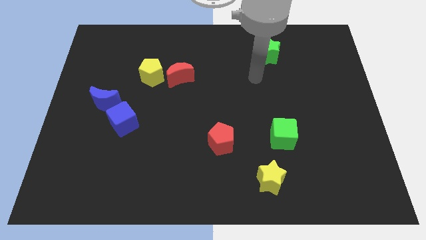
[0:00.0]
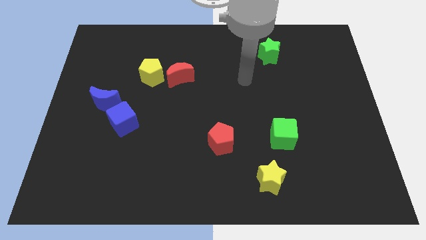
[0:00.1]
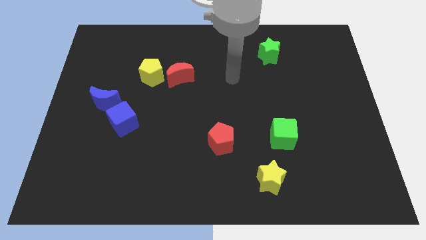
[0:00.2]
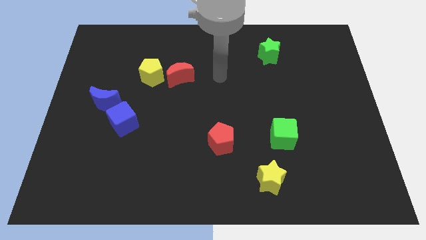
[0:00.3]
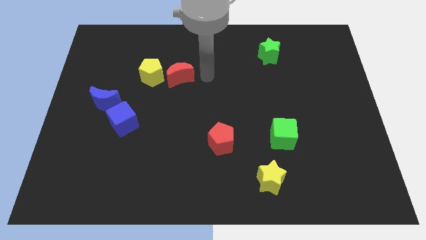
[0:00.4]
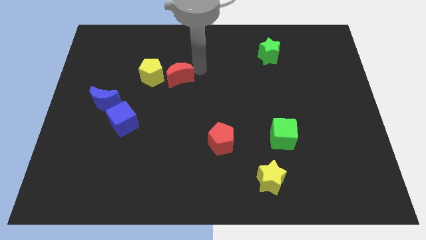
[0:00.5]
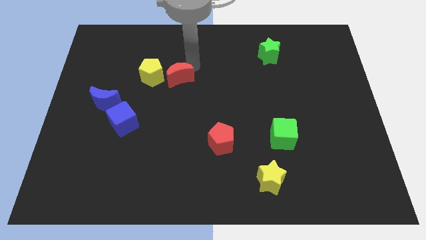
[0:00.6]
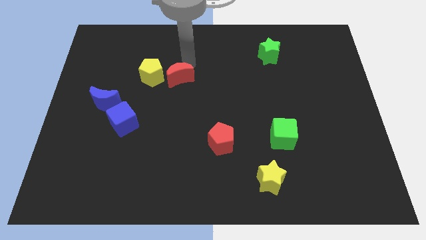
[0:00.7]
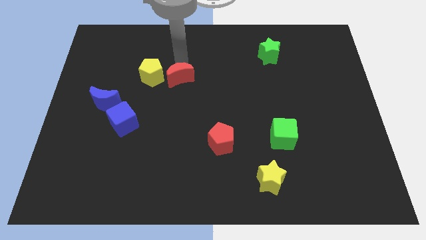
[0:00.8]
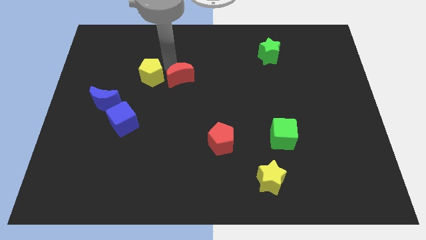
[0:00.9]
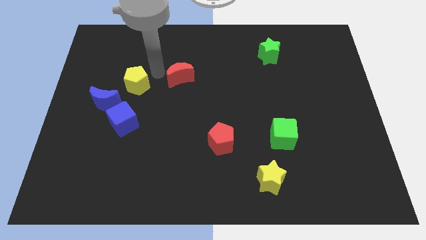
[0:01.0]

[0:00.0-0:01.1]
separate the red moon from the yellow pentagon

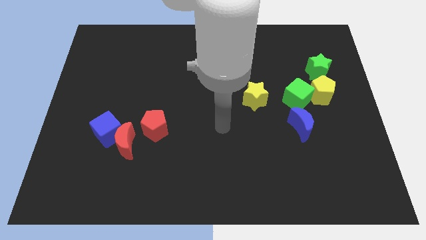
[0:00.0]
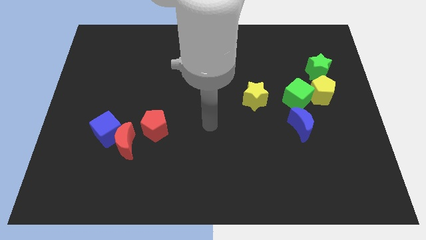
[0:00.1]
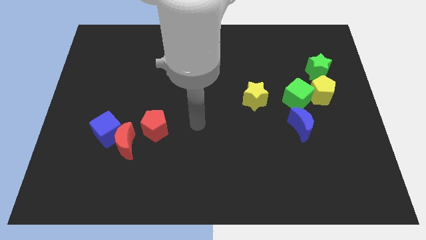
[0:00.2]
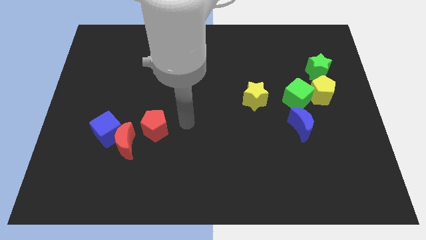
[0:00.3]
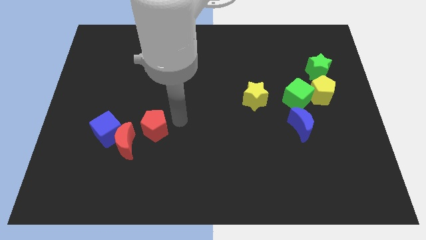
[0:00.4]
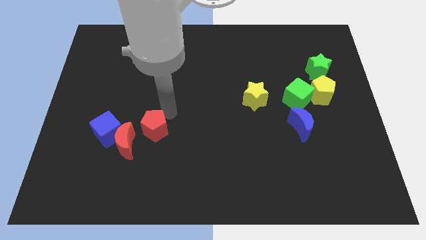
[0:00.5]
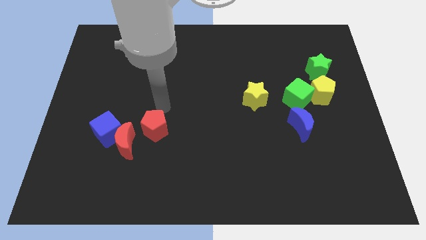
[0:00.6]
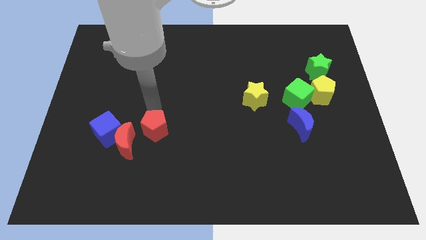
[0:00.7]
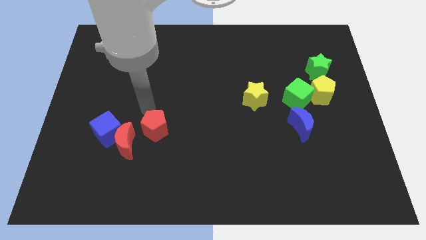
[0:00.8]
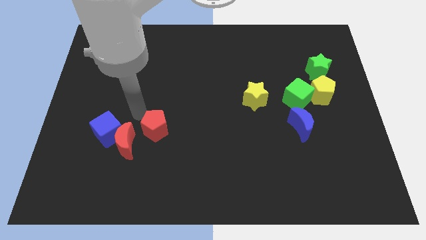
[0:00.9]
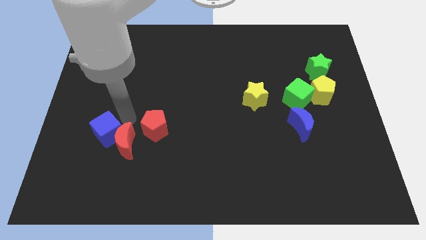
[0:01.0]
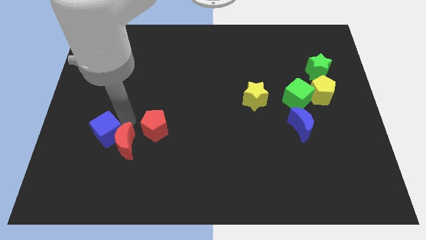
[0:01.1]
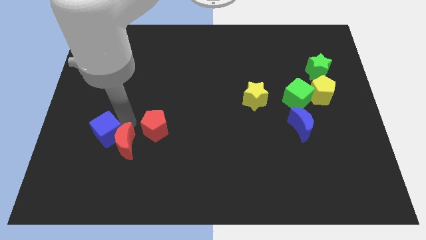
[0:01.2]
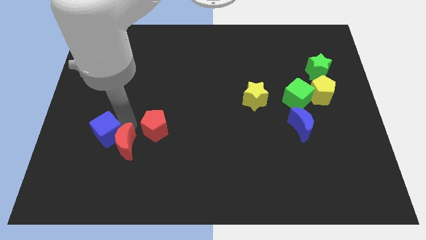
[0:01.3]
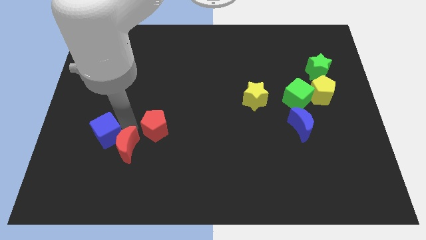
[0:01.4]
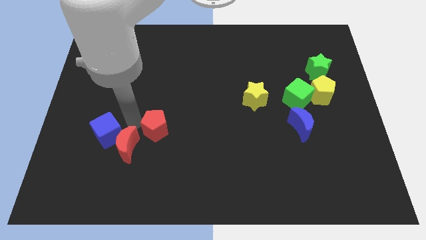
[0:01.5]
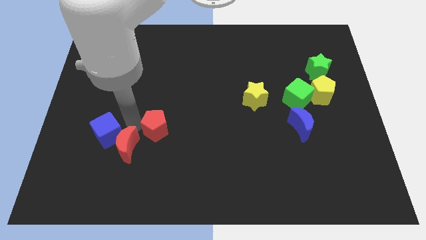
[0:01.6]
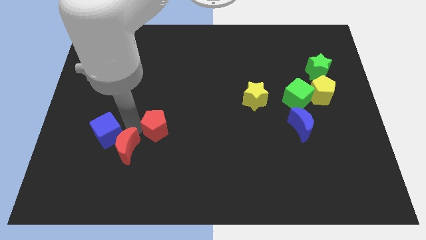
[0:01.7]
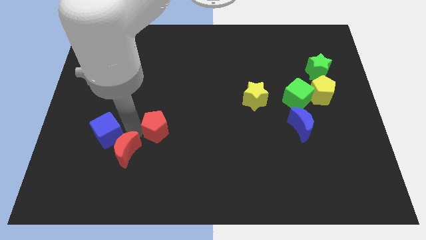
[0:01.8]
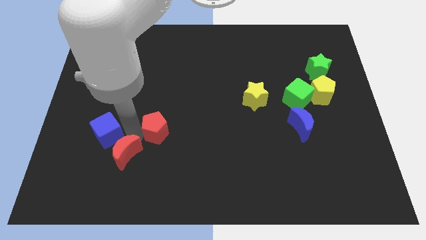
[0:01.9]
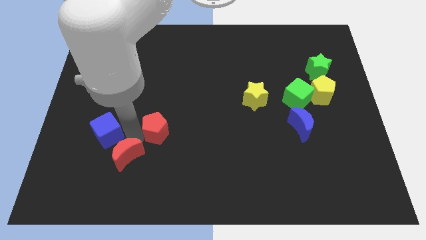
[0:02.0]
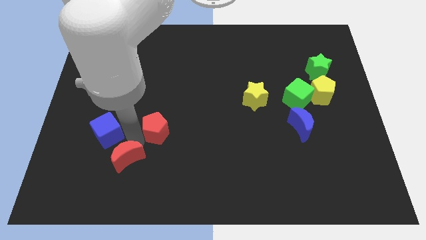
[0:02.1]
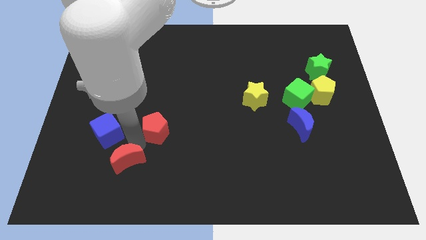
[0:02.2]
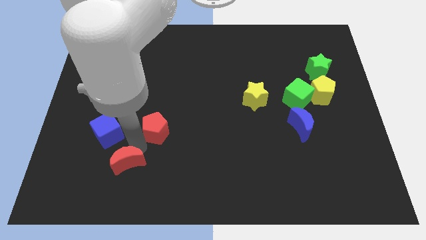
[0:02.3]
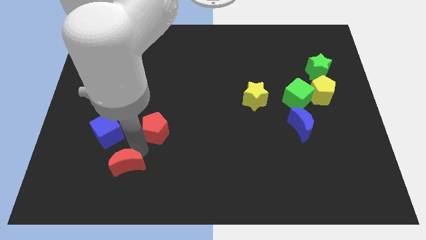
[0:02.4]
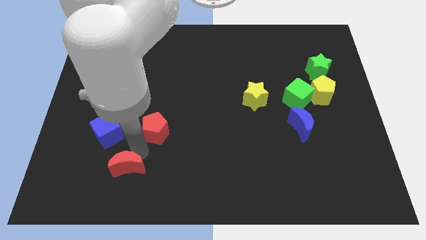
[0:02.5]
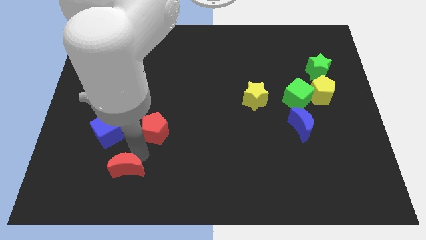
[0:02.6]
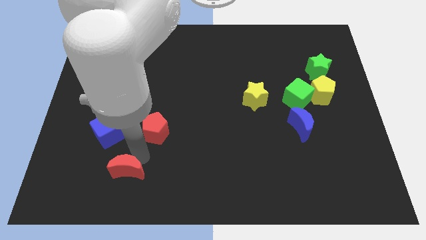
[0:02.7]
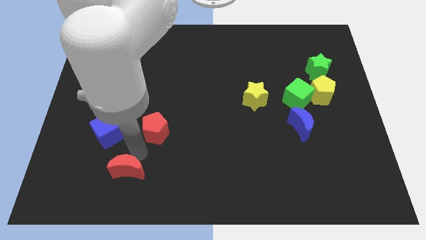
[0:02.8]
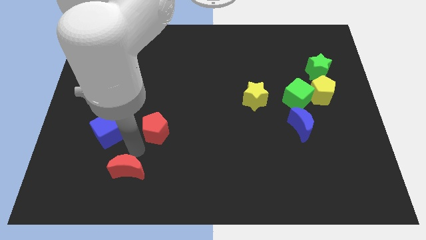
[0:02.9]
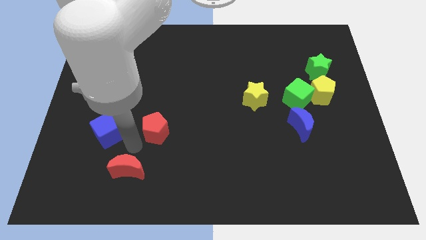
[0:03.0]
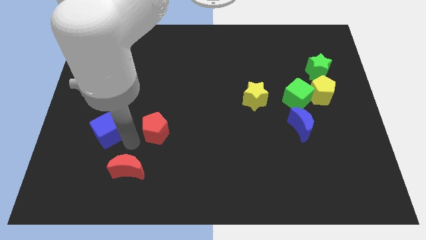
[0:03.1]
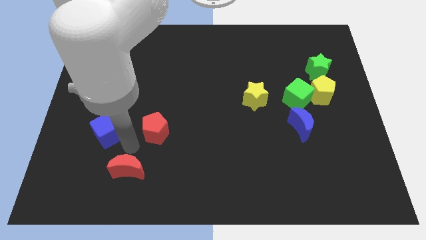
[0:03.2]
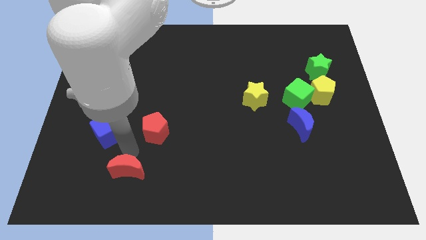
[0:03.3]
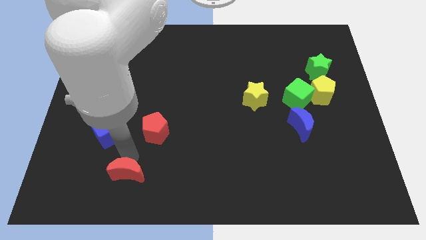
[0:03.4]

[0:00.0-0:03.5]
move the red moon away from the blue cube and red pentagon

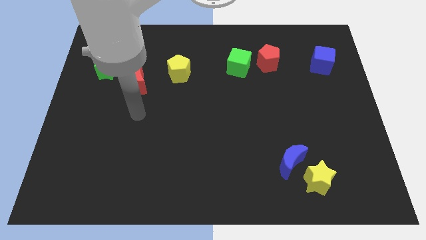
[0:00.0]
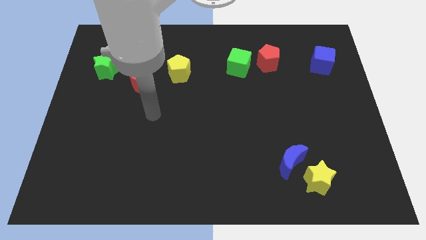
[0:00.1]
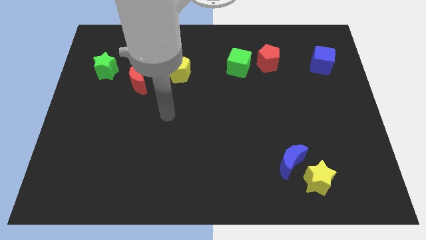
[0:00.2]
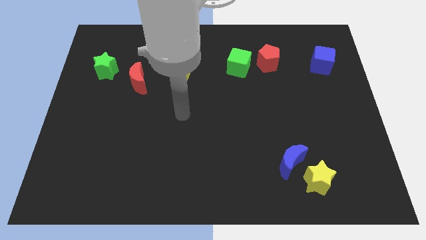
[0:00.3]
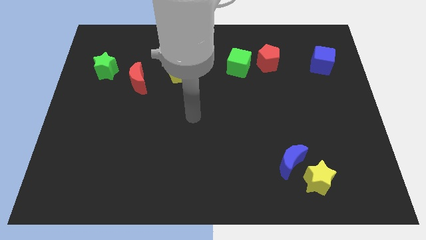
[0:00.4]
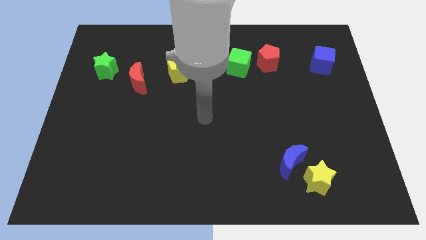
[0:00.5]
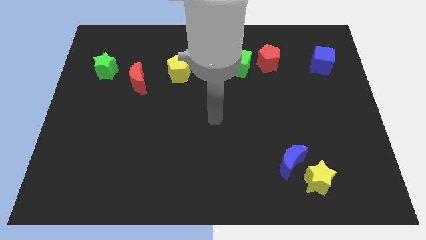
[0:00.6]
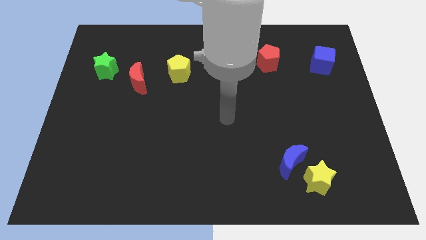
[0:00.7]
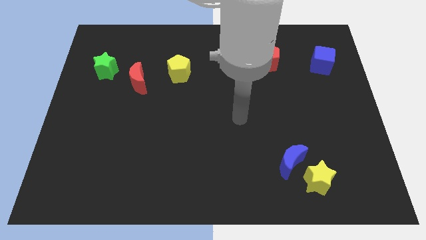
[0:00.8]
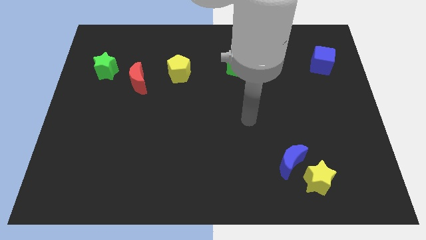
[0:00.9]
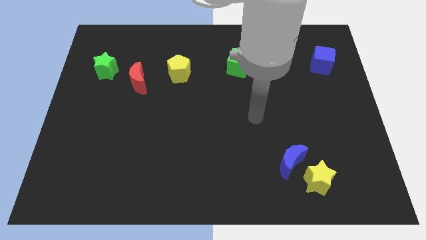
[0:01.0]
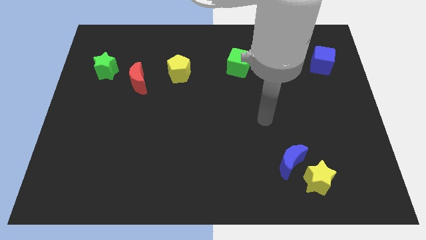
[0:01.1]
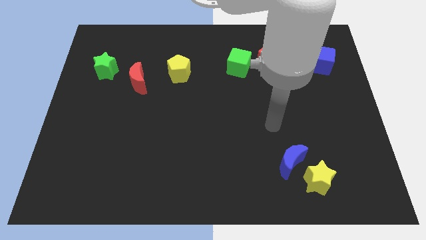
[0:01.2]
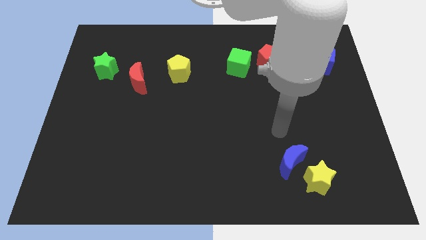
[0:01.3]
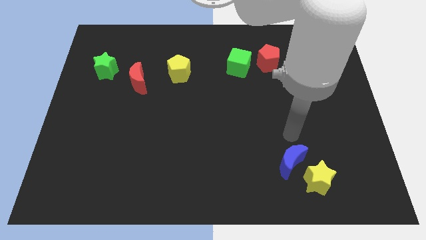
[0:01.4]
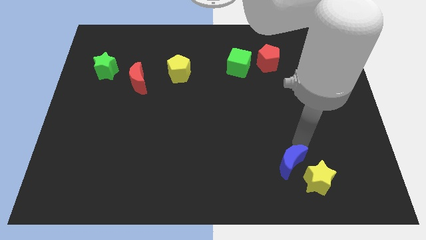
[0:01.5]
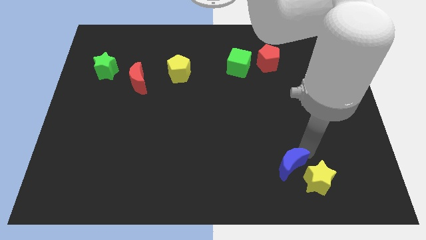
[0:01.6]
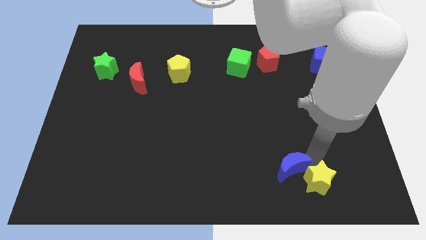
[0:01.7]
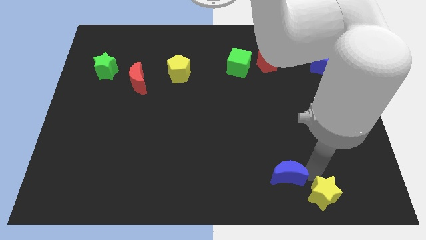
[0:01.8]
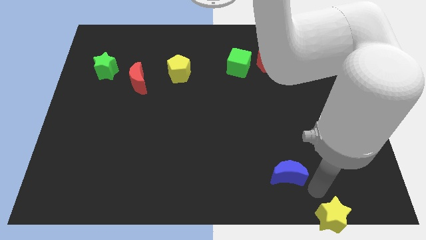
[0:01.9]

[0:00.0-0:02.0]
separate the blue moon from the yellow star

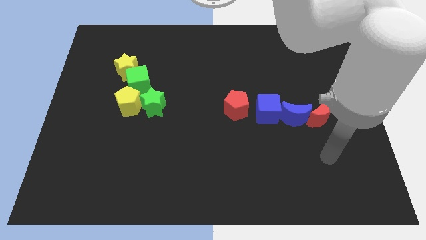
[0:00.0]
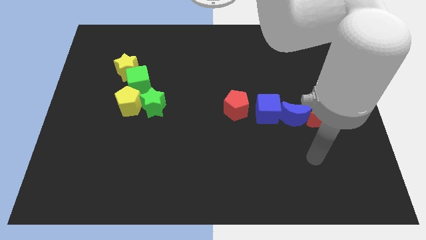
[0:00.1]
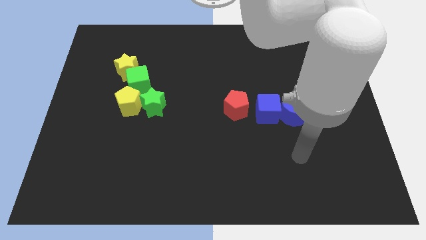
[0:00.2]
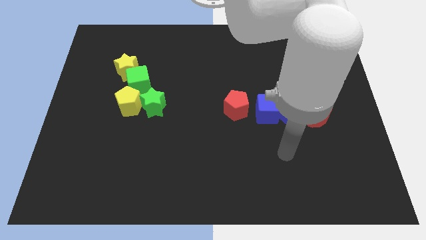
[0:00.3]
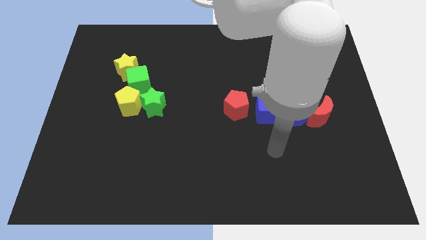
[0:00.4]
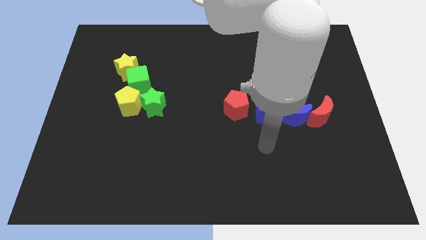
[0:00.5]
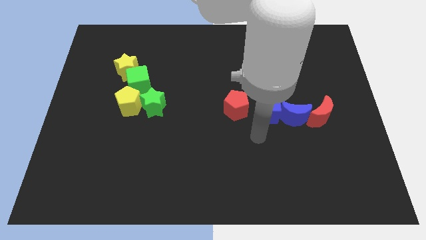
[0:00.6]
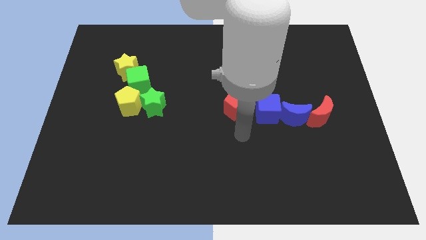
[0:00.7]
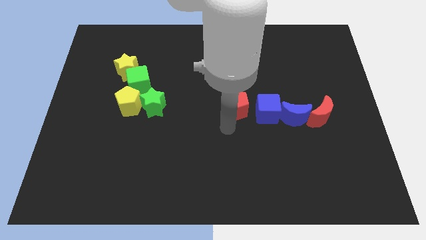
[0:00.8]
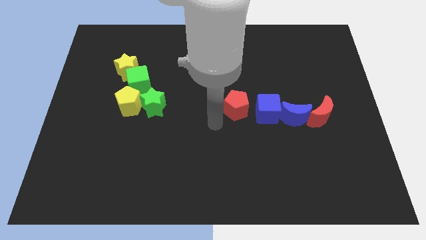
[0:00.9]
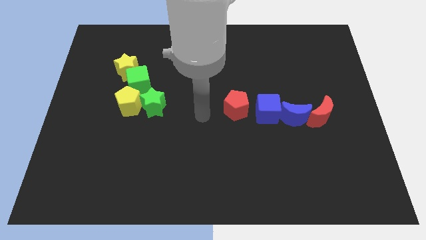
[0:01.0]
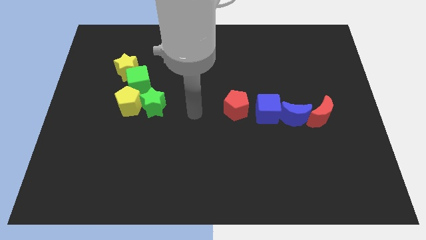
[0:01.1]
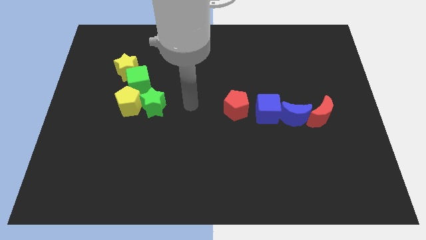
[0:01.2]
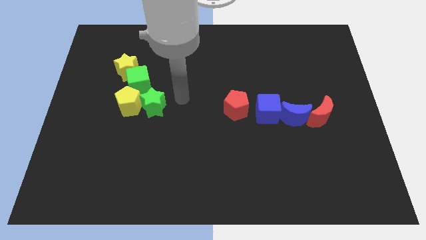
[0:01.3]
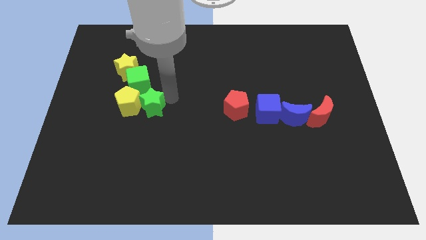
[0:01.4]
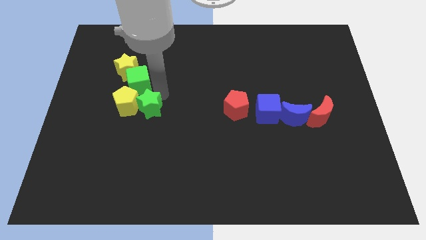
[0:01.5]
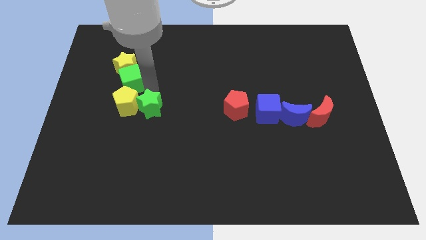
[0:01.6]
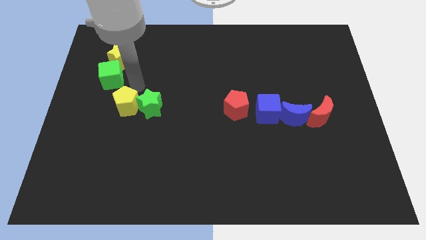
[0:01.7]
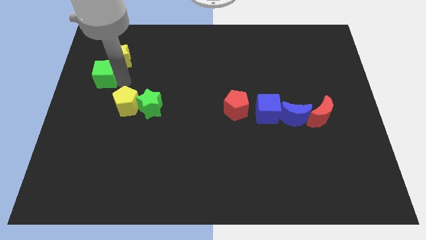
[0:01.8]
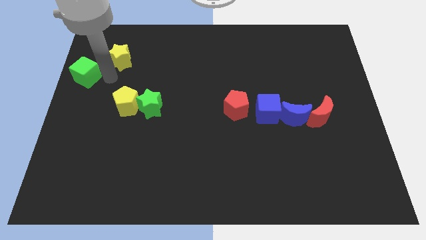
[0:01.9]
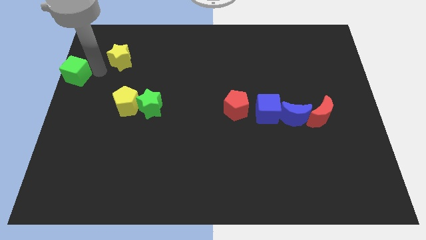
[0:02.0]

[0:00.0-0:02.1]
move the yellow star away from the green cube

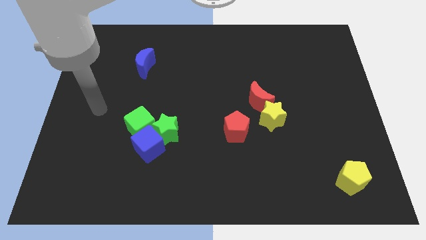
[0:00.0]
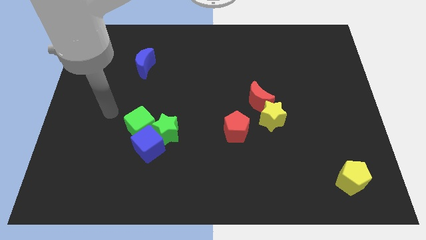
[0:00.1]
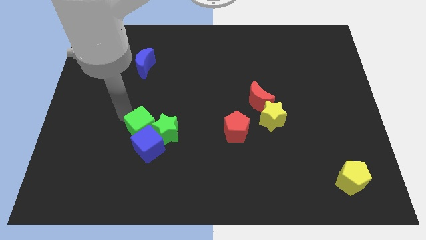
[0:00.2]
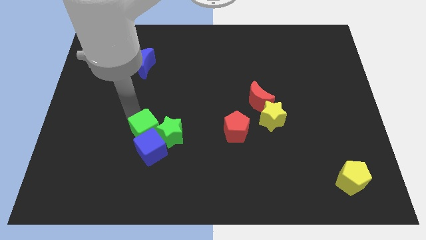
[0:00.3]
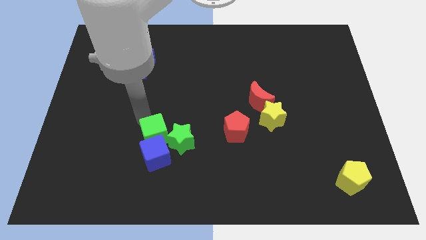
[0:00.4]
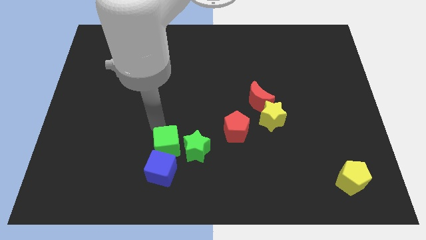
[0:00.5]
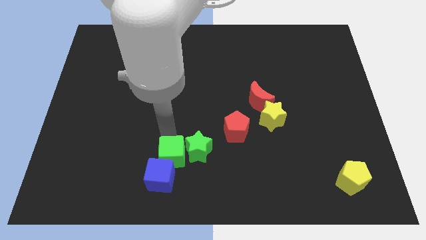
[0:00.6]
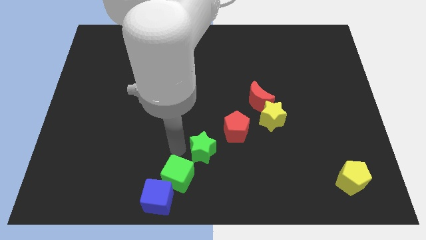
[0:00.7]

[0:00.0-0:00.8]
pull the blue cube apart from the green star and green cube

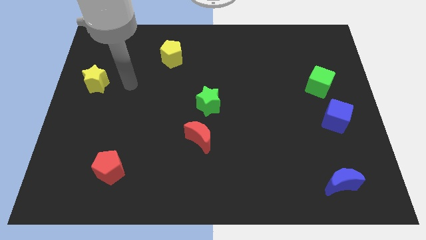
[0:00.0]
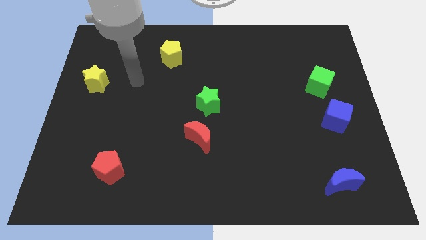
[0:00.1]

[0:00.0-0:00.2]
pull the red moon apart from the green star
